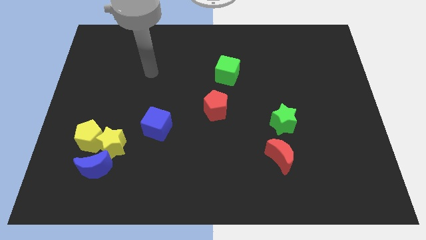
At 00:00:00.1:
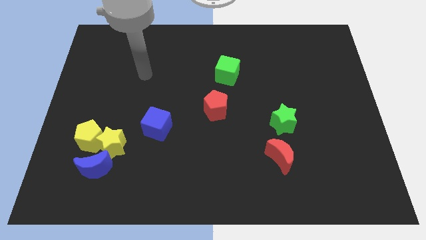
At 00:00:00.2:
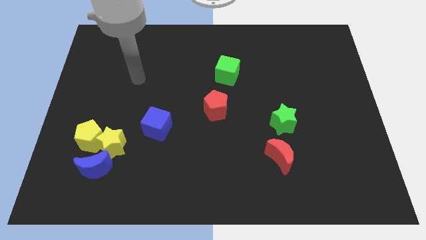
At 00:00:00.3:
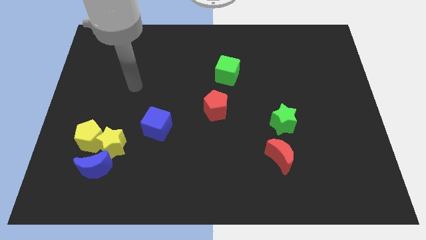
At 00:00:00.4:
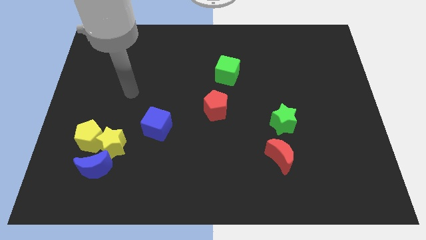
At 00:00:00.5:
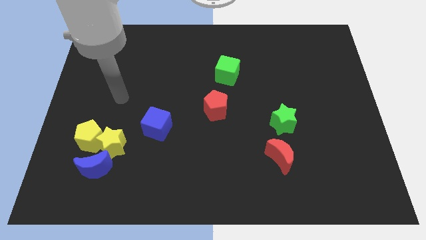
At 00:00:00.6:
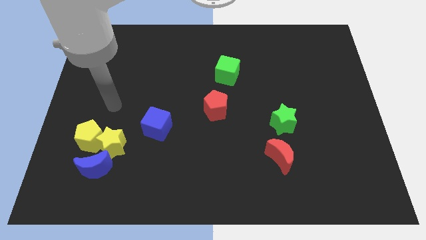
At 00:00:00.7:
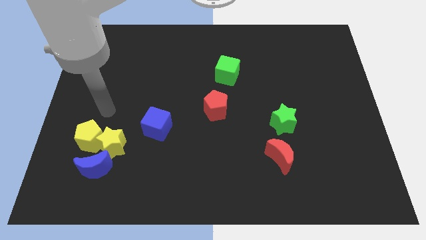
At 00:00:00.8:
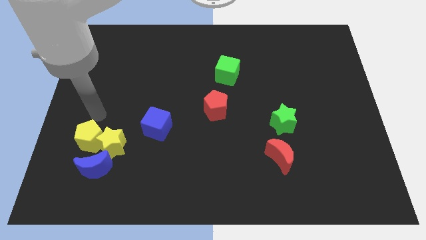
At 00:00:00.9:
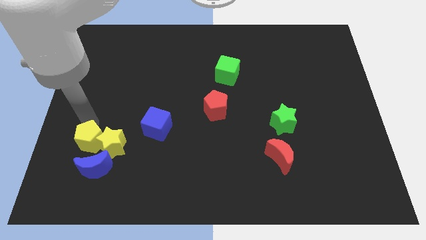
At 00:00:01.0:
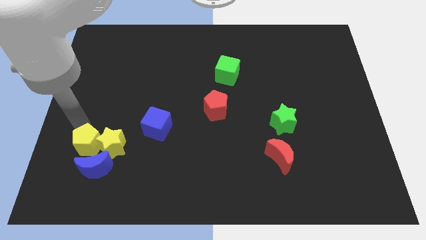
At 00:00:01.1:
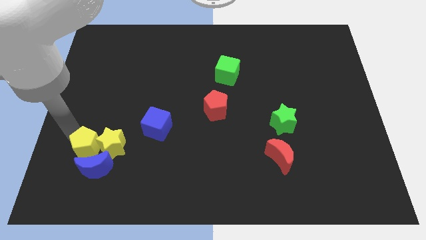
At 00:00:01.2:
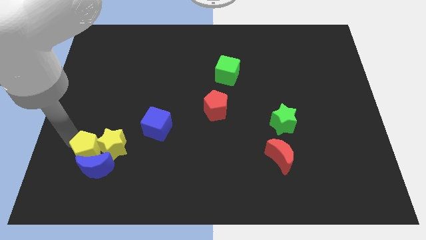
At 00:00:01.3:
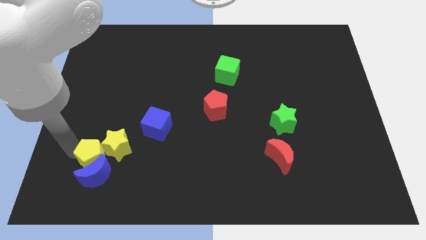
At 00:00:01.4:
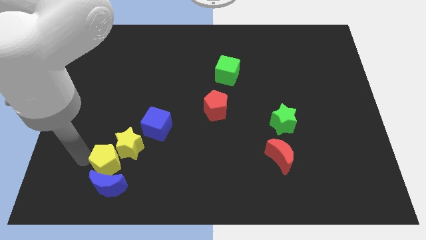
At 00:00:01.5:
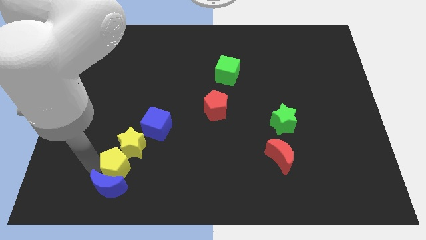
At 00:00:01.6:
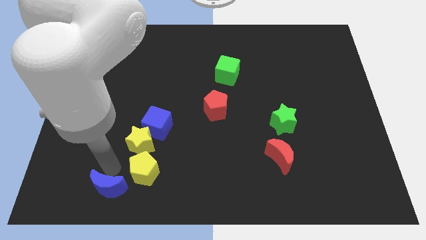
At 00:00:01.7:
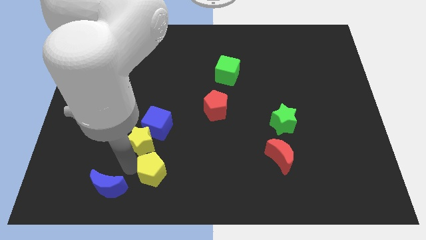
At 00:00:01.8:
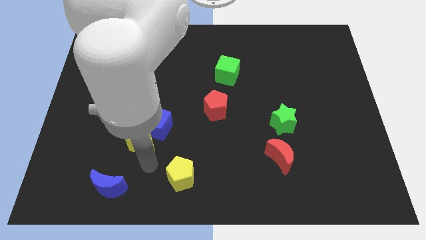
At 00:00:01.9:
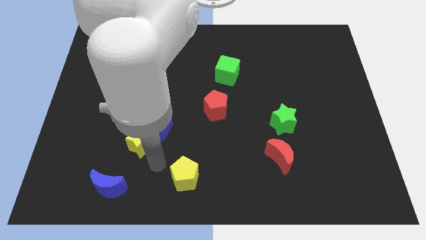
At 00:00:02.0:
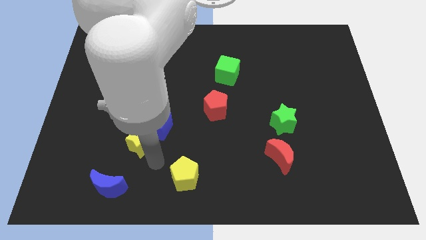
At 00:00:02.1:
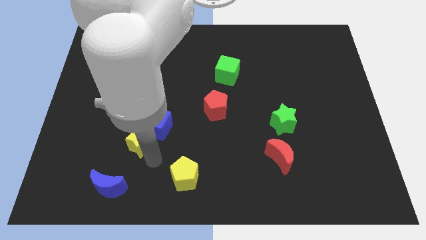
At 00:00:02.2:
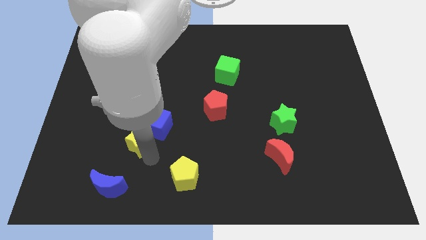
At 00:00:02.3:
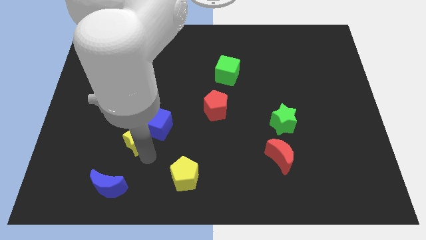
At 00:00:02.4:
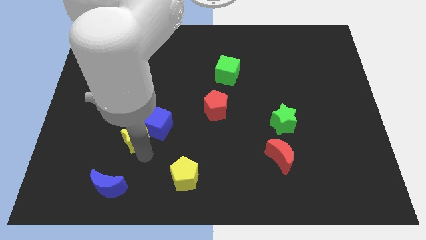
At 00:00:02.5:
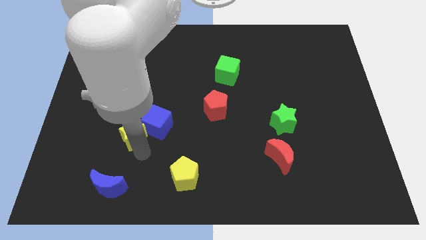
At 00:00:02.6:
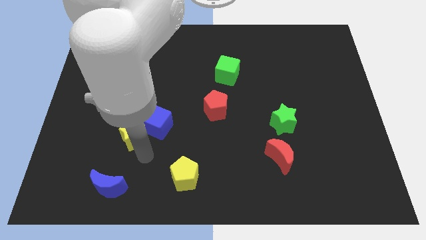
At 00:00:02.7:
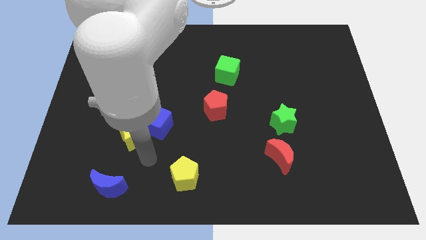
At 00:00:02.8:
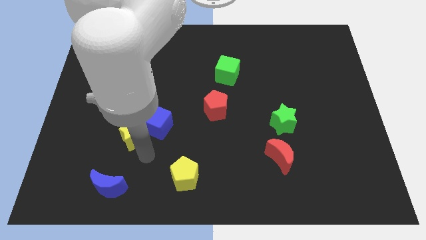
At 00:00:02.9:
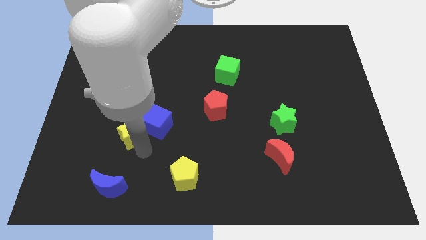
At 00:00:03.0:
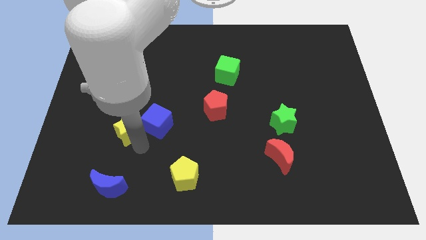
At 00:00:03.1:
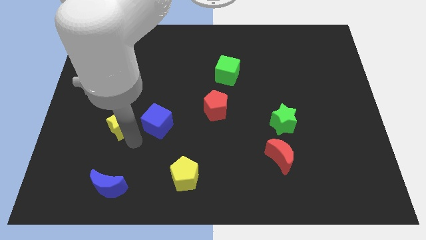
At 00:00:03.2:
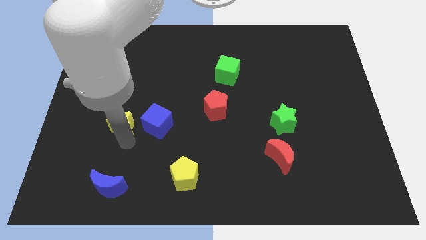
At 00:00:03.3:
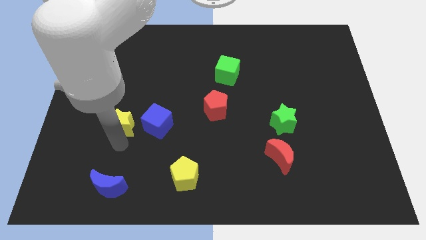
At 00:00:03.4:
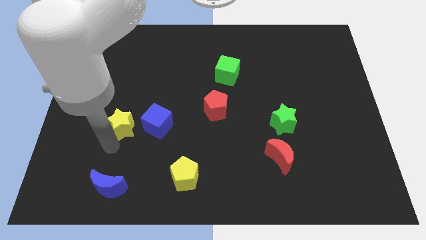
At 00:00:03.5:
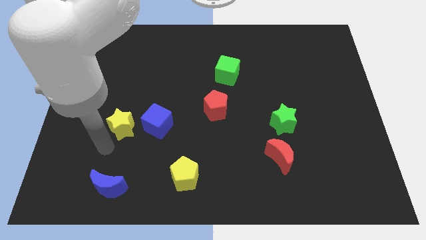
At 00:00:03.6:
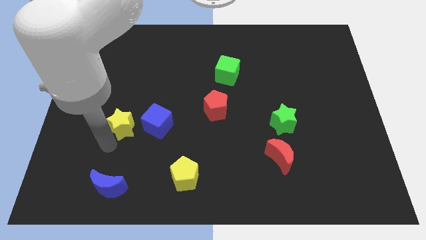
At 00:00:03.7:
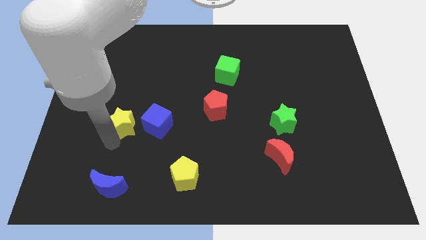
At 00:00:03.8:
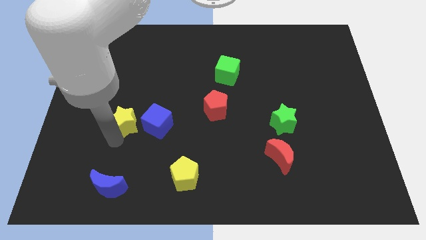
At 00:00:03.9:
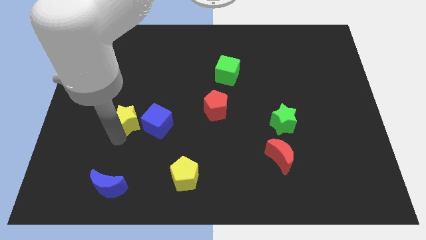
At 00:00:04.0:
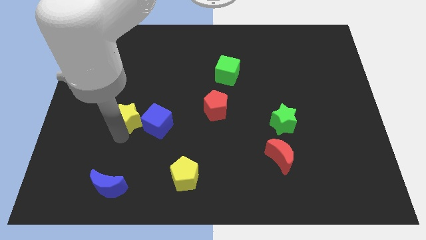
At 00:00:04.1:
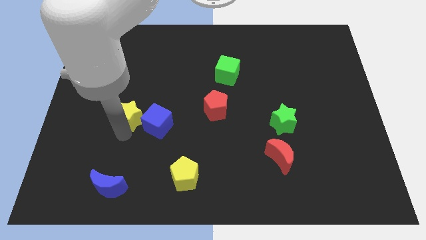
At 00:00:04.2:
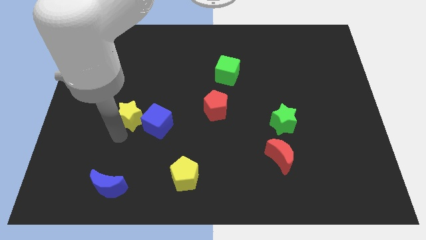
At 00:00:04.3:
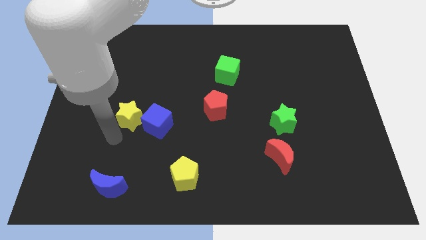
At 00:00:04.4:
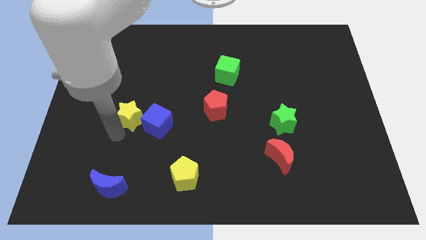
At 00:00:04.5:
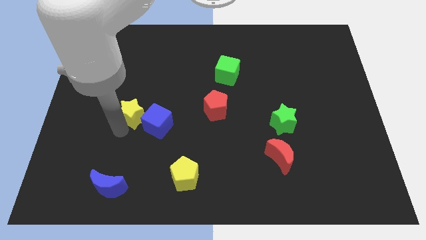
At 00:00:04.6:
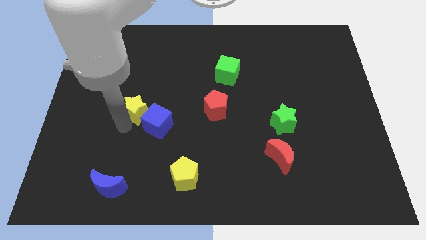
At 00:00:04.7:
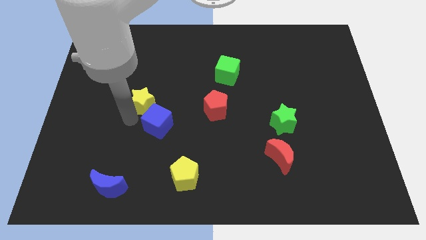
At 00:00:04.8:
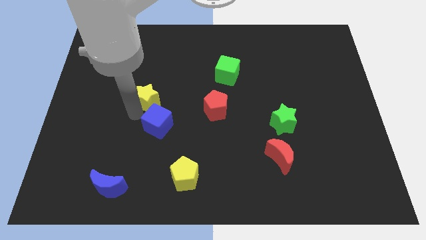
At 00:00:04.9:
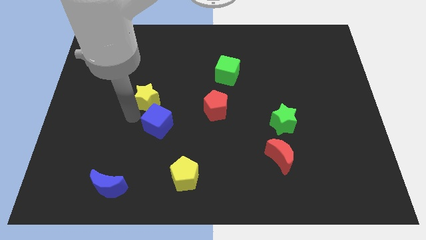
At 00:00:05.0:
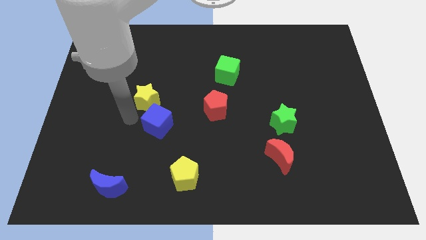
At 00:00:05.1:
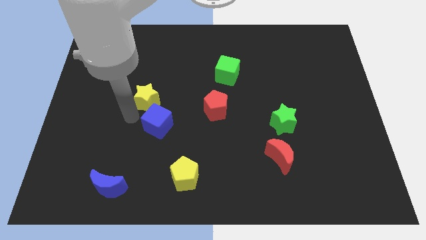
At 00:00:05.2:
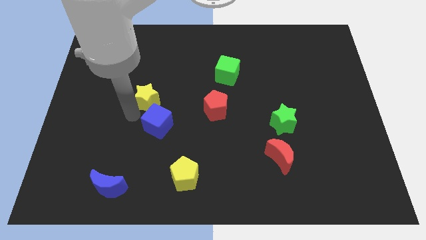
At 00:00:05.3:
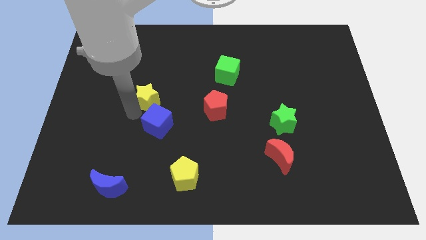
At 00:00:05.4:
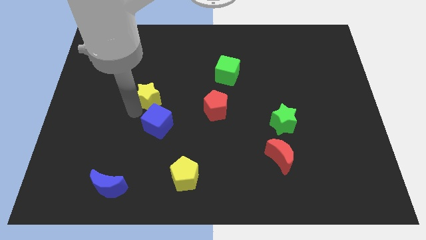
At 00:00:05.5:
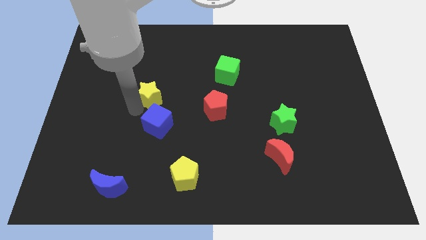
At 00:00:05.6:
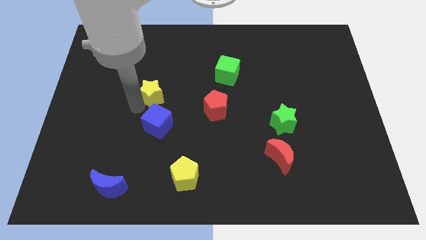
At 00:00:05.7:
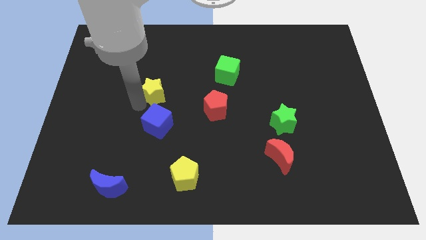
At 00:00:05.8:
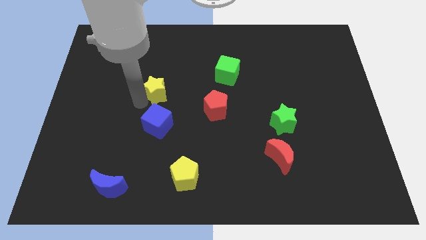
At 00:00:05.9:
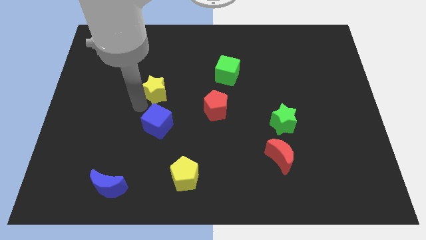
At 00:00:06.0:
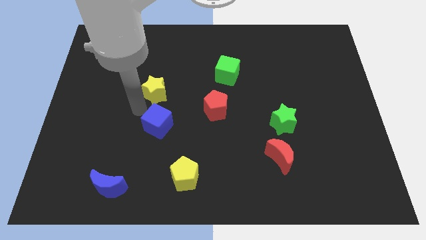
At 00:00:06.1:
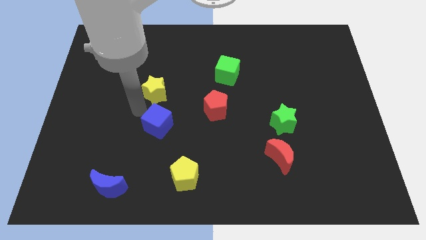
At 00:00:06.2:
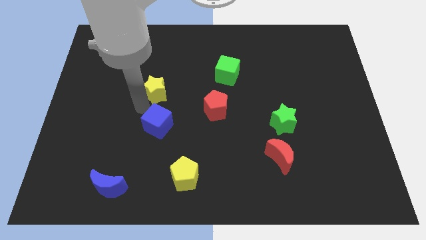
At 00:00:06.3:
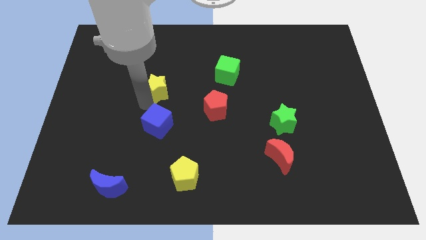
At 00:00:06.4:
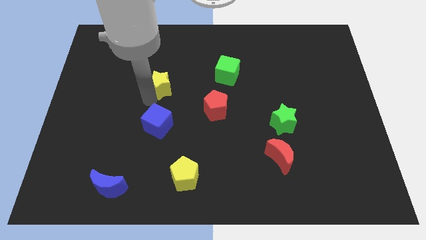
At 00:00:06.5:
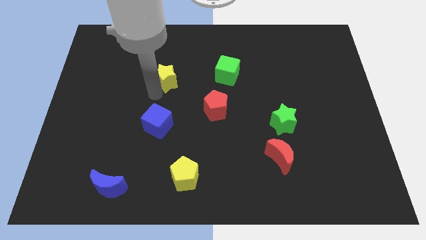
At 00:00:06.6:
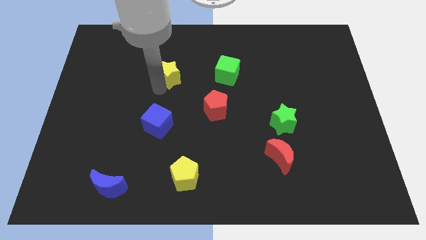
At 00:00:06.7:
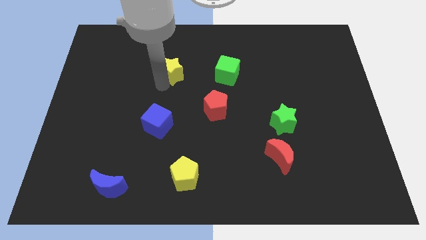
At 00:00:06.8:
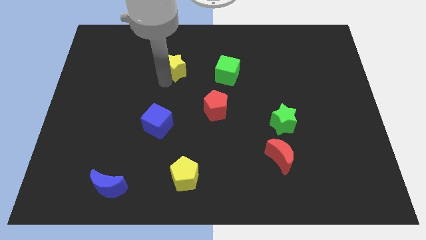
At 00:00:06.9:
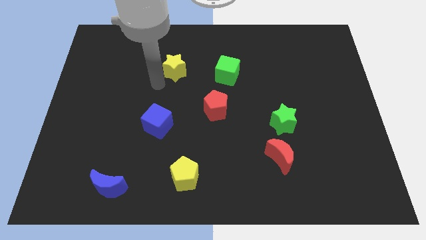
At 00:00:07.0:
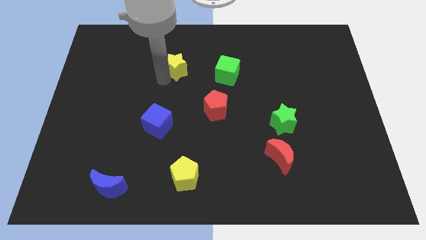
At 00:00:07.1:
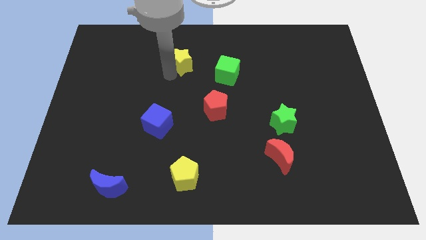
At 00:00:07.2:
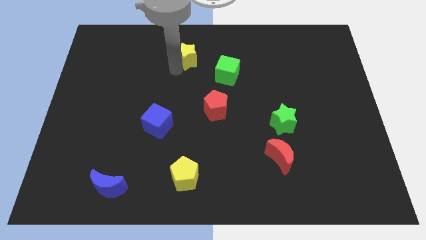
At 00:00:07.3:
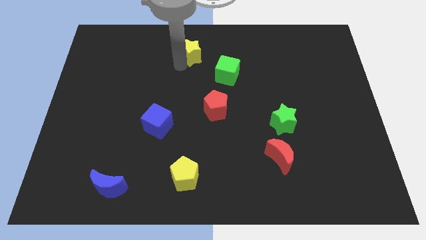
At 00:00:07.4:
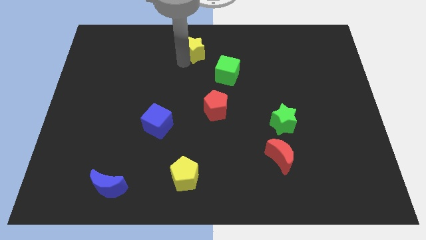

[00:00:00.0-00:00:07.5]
slide the yellow star to the top side
